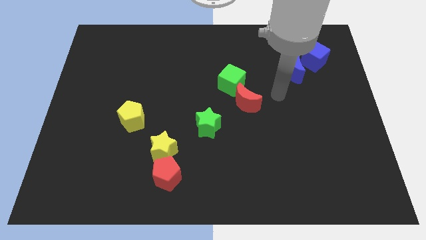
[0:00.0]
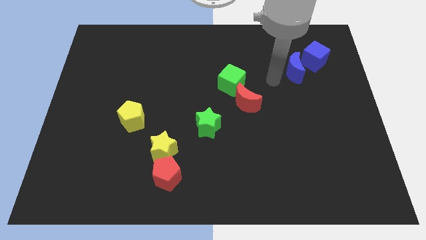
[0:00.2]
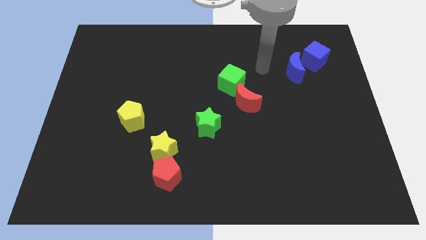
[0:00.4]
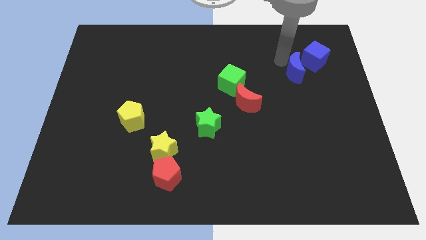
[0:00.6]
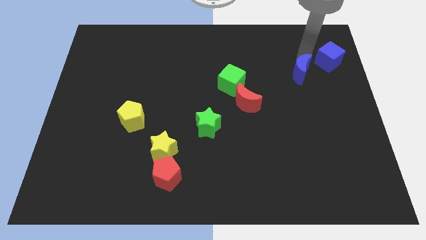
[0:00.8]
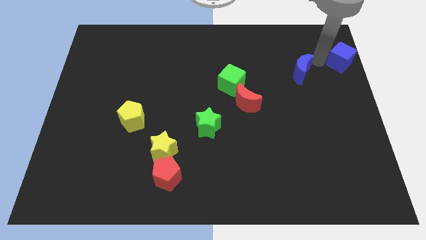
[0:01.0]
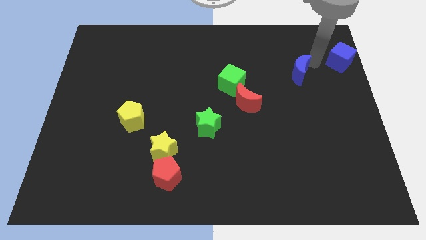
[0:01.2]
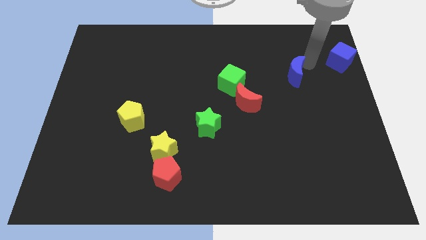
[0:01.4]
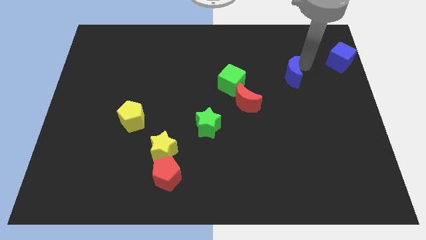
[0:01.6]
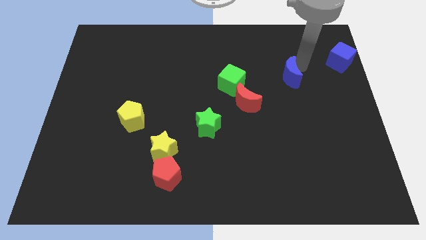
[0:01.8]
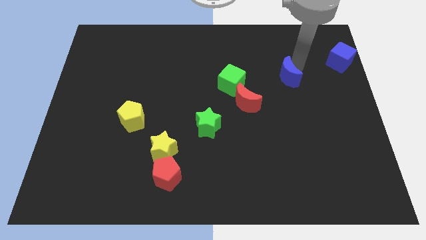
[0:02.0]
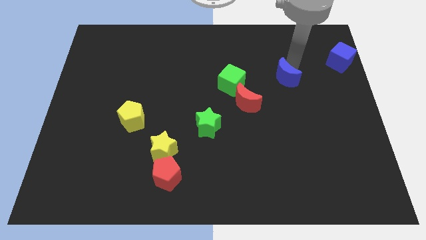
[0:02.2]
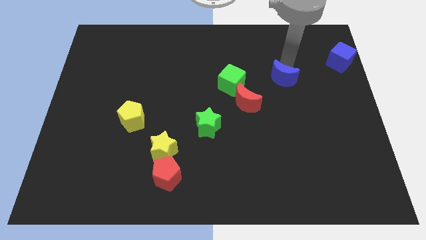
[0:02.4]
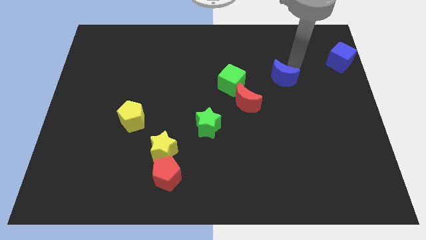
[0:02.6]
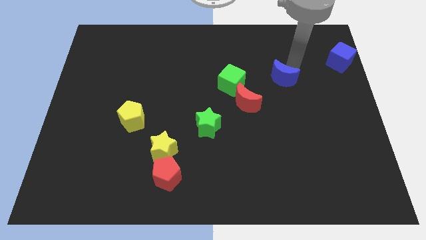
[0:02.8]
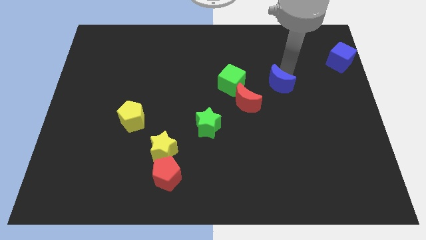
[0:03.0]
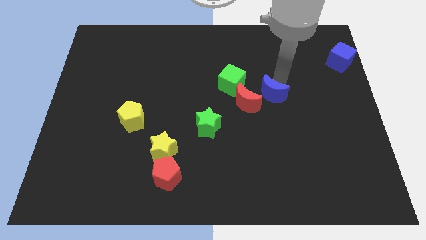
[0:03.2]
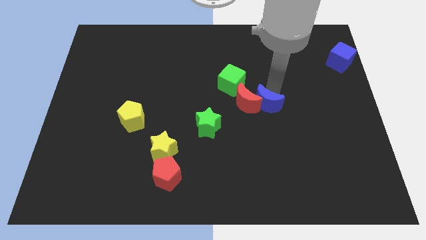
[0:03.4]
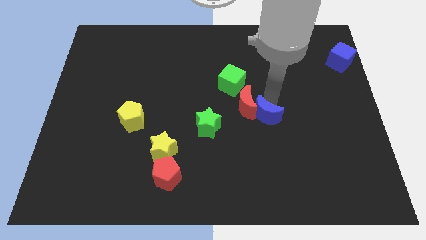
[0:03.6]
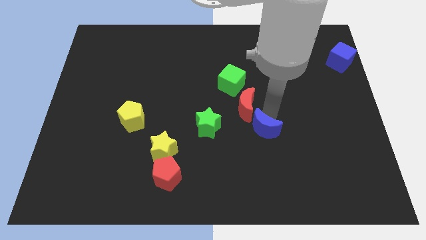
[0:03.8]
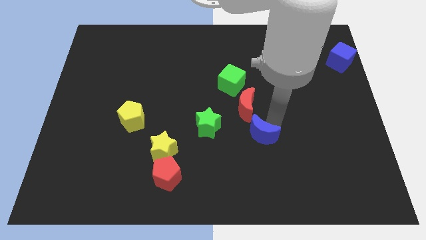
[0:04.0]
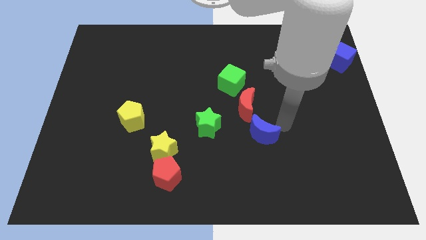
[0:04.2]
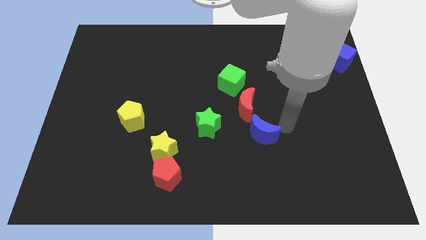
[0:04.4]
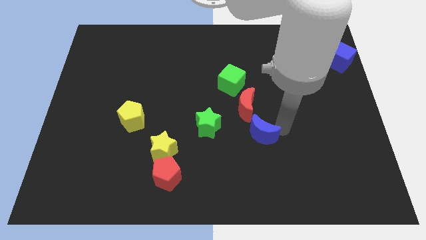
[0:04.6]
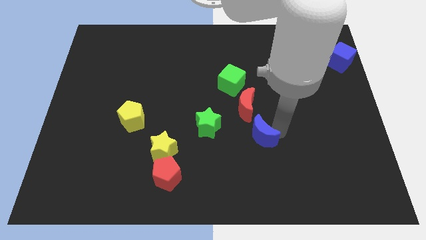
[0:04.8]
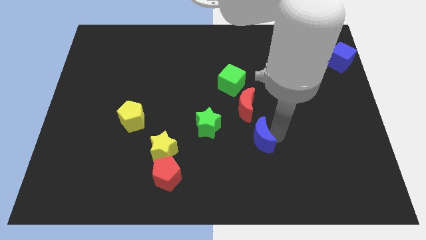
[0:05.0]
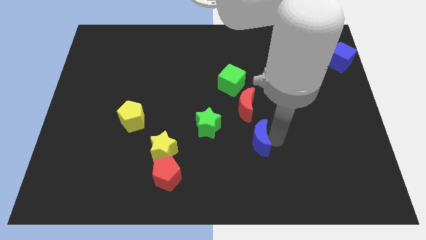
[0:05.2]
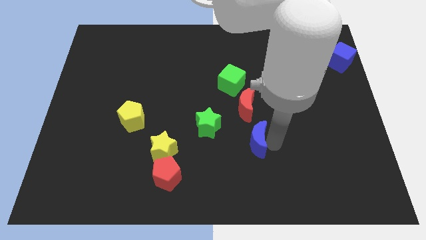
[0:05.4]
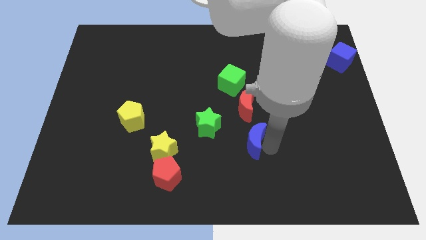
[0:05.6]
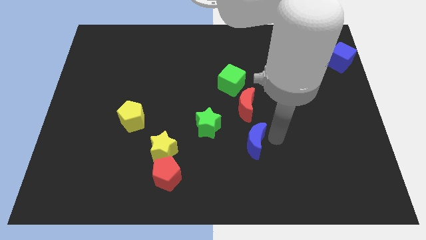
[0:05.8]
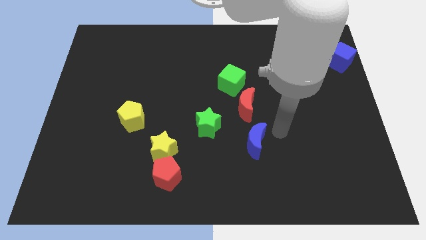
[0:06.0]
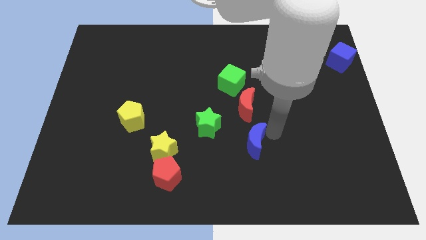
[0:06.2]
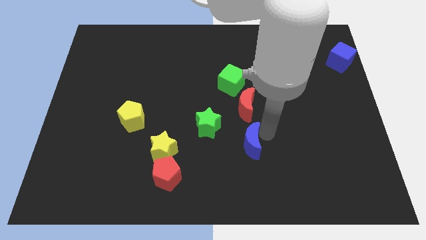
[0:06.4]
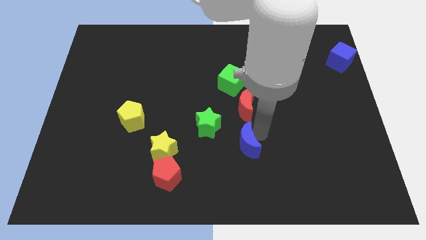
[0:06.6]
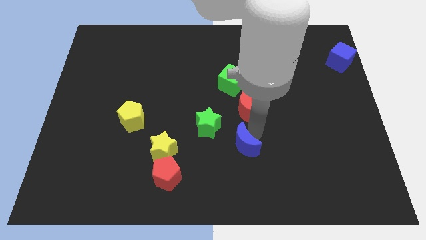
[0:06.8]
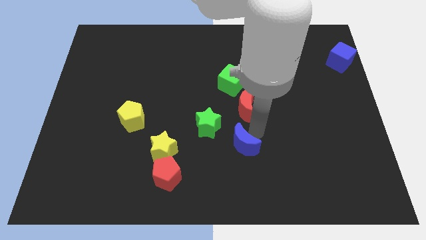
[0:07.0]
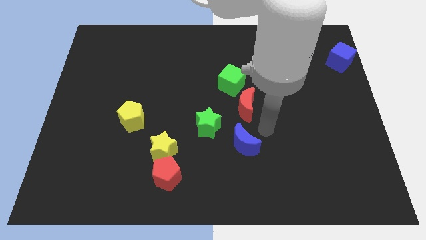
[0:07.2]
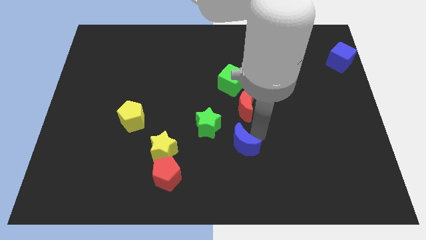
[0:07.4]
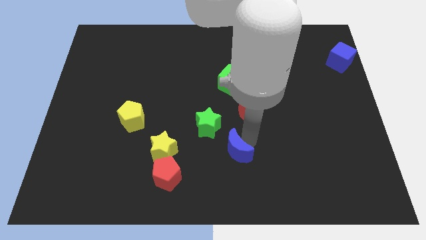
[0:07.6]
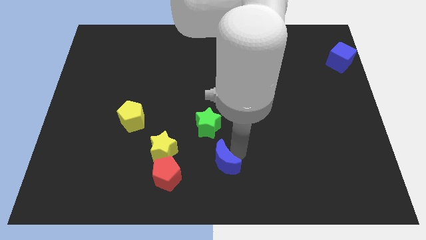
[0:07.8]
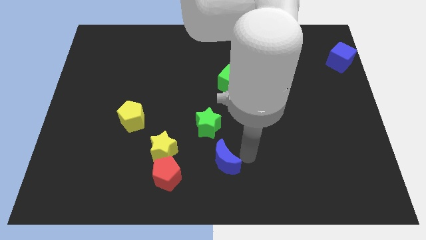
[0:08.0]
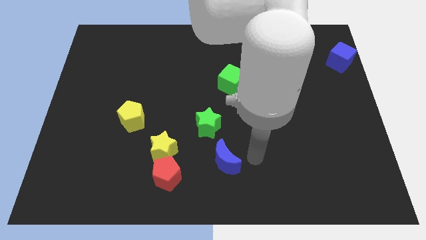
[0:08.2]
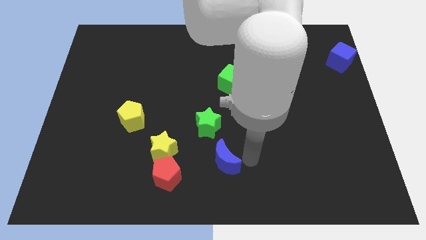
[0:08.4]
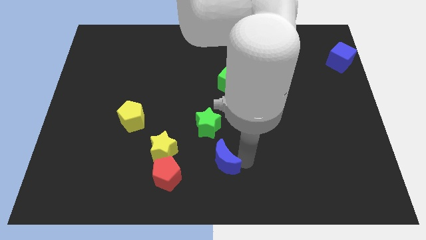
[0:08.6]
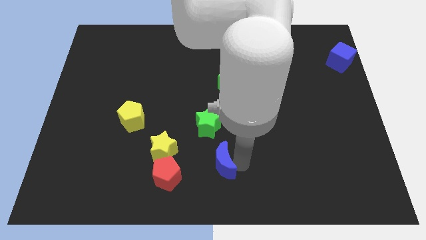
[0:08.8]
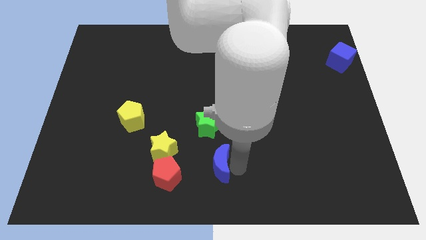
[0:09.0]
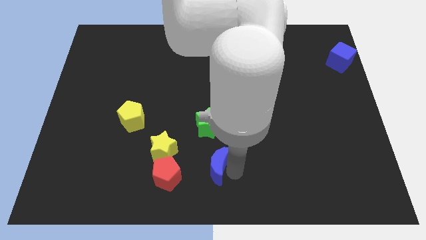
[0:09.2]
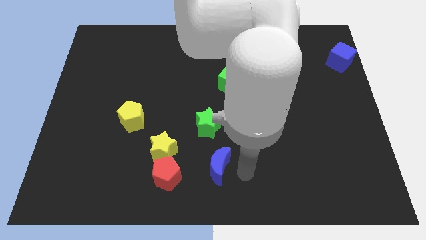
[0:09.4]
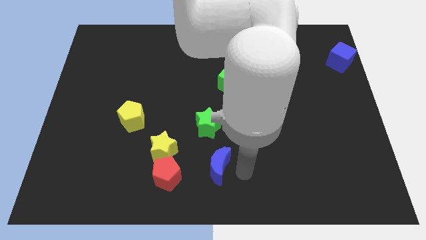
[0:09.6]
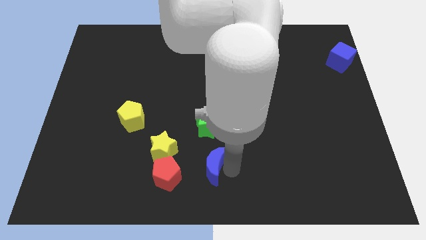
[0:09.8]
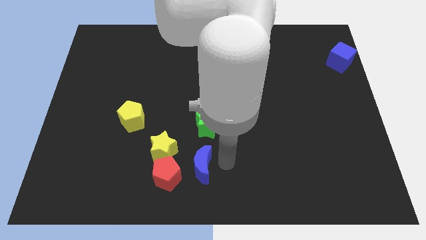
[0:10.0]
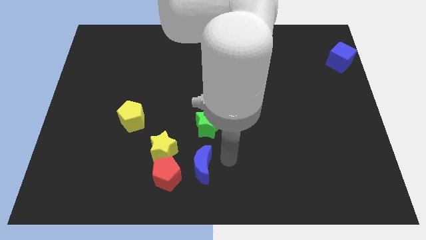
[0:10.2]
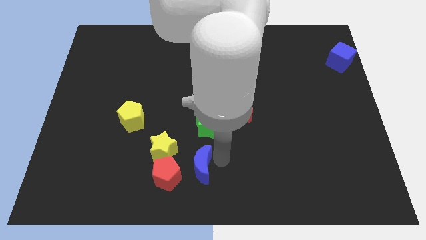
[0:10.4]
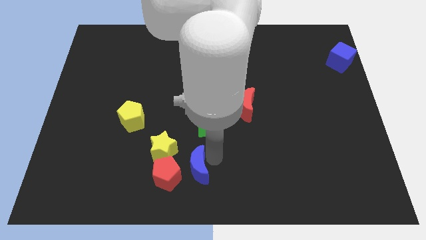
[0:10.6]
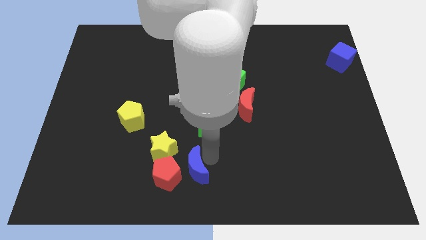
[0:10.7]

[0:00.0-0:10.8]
push the blue moon close to the red pentagon

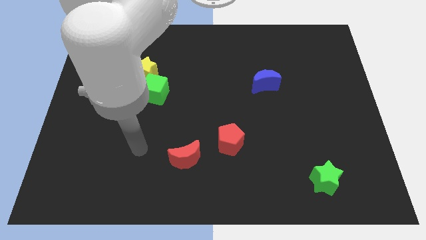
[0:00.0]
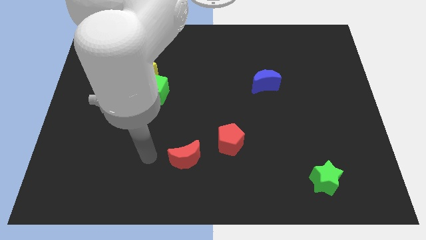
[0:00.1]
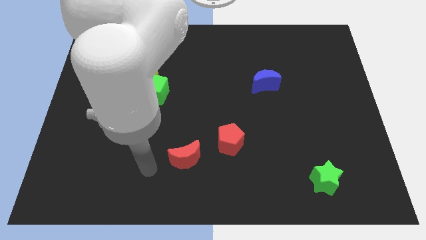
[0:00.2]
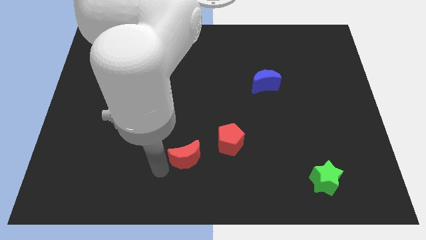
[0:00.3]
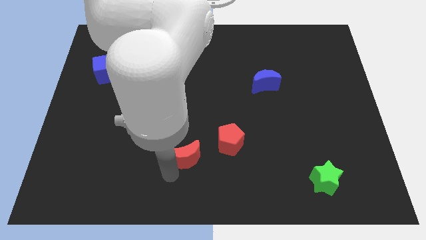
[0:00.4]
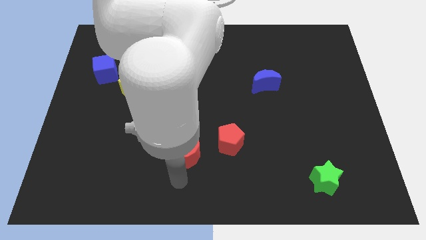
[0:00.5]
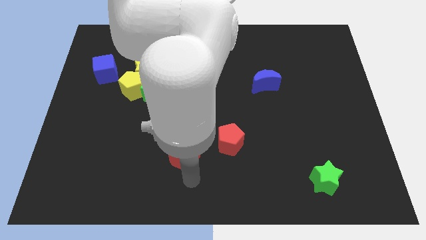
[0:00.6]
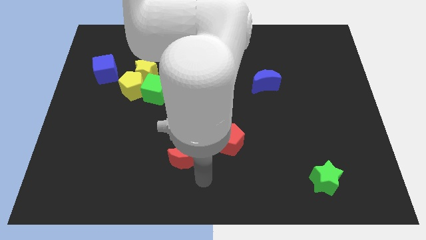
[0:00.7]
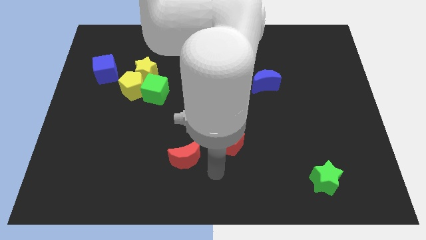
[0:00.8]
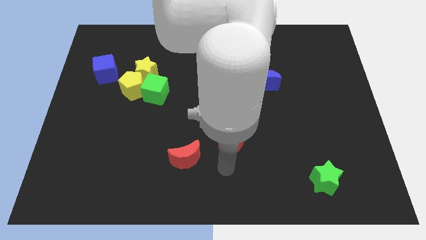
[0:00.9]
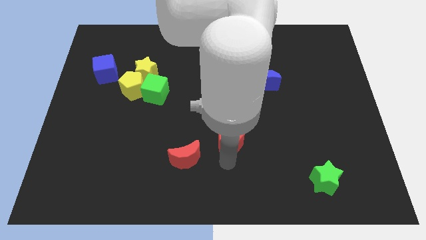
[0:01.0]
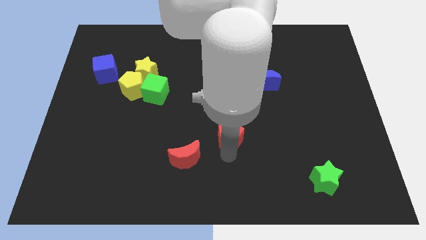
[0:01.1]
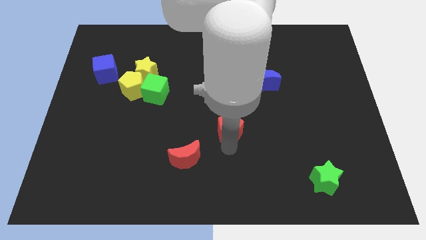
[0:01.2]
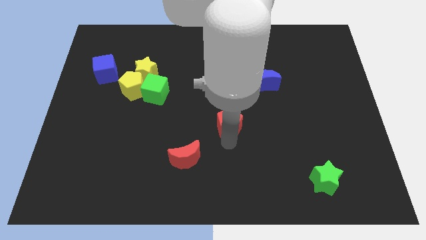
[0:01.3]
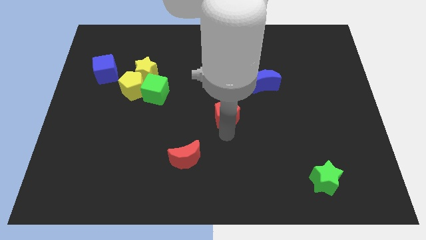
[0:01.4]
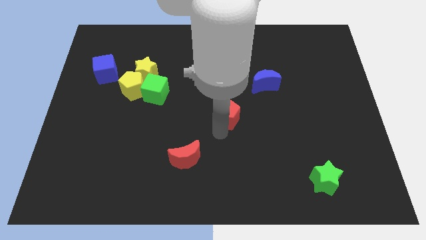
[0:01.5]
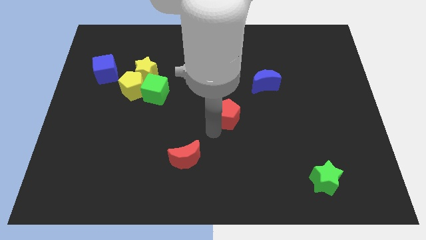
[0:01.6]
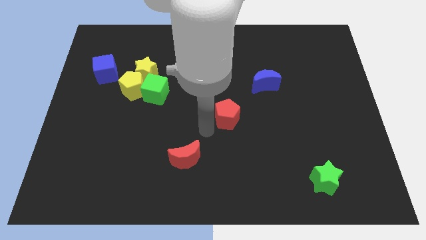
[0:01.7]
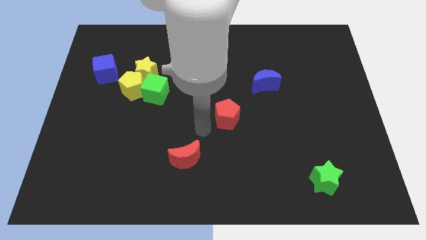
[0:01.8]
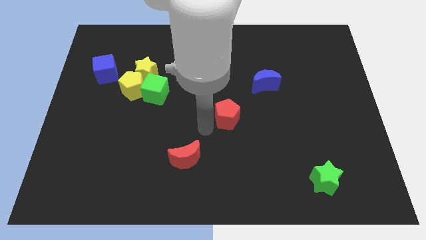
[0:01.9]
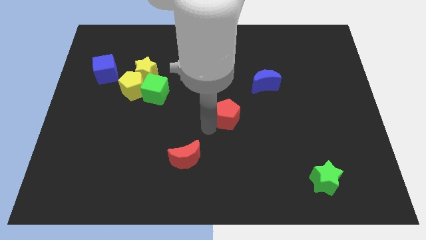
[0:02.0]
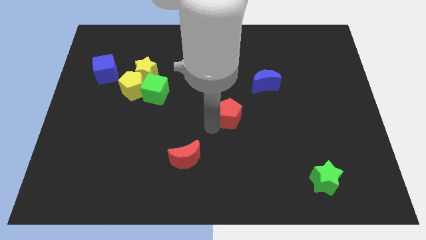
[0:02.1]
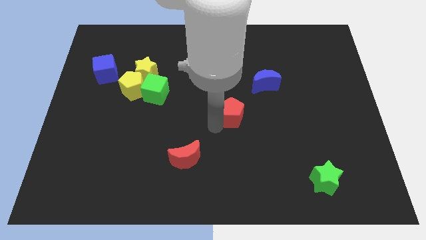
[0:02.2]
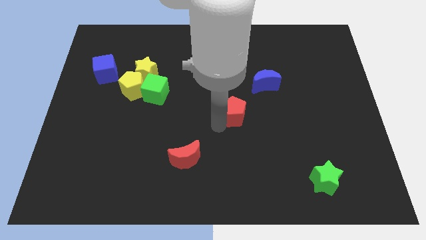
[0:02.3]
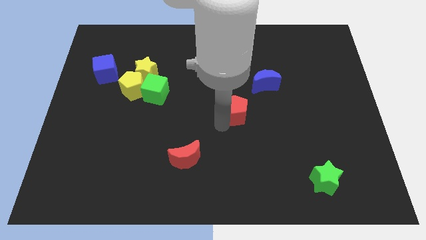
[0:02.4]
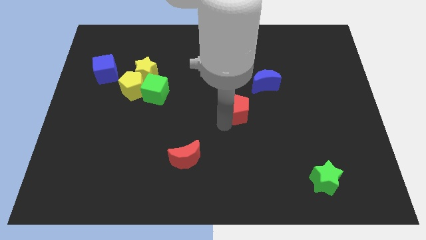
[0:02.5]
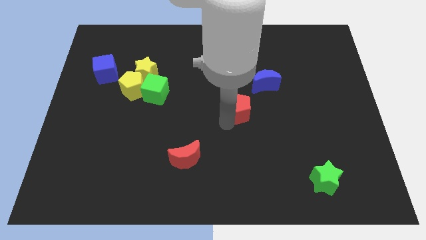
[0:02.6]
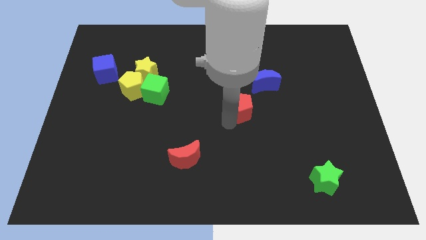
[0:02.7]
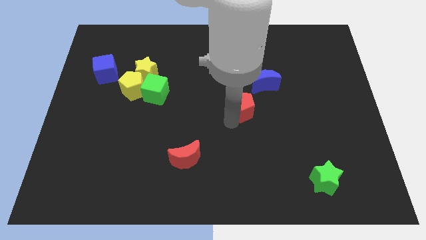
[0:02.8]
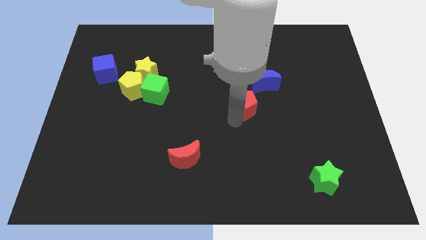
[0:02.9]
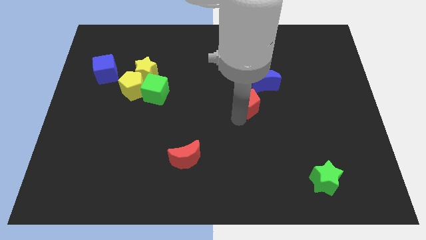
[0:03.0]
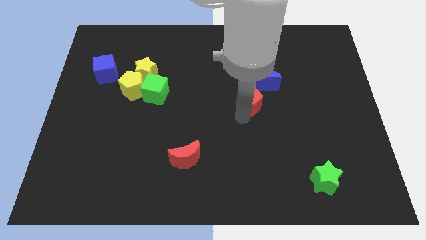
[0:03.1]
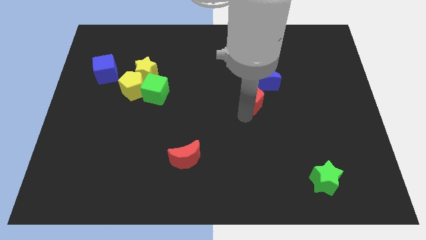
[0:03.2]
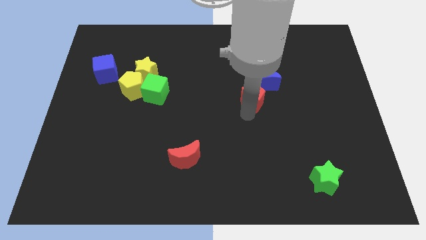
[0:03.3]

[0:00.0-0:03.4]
slide the red pentagon towards the blue moon
